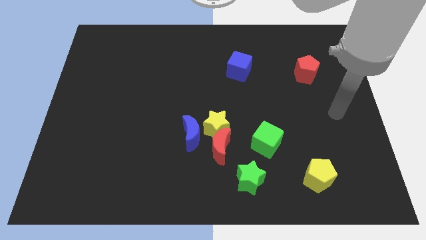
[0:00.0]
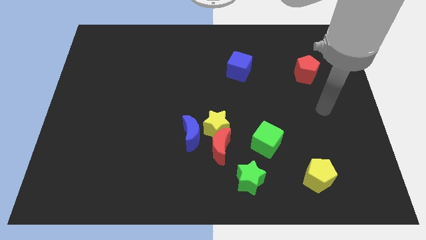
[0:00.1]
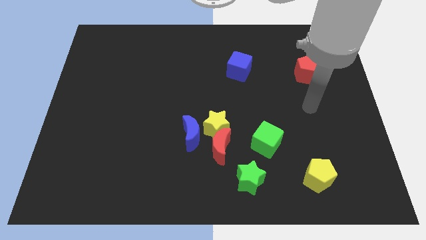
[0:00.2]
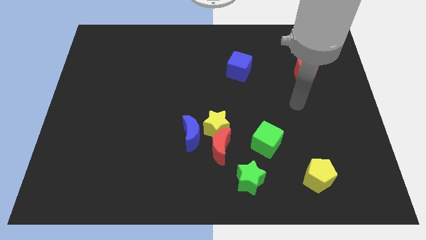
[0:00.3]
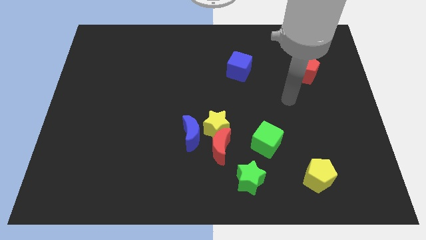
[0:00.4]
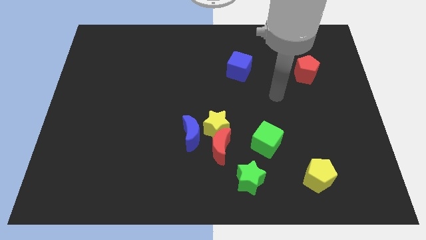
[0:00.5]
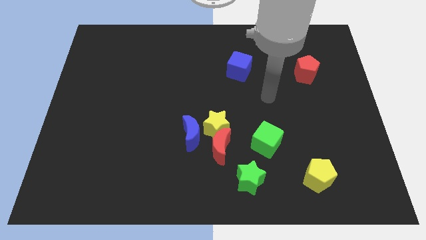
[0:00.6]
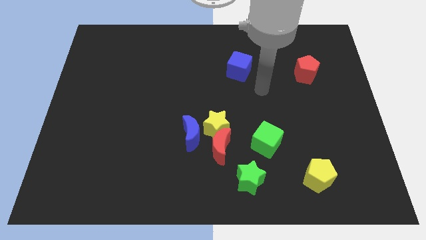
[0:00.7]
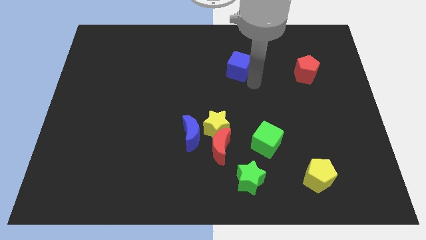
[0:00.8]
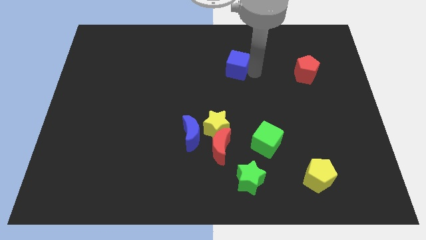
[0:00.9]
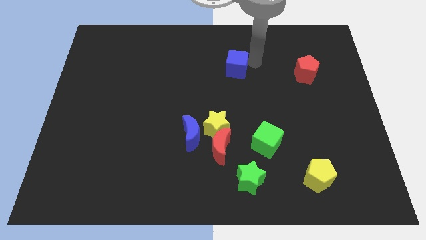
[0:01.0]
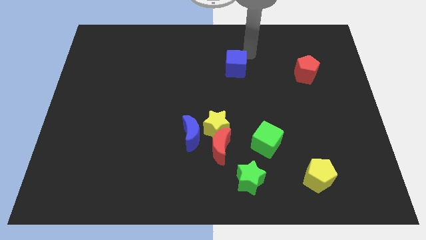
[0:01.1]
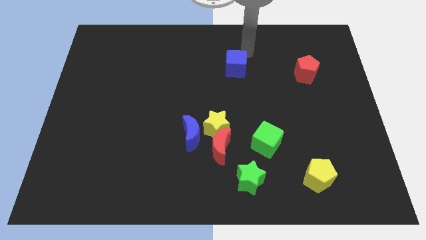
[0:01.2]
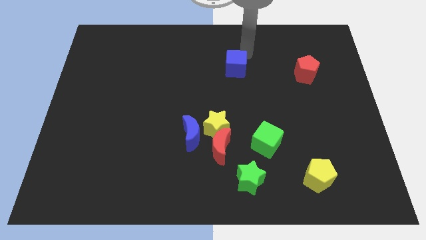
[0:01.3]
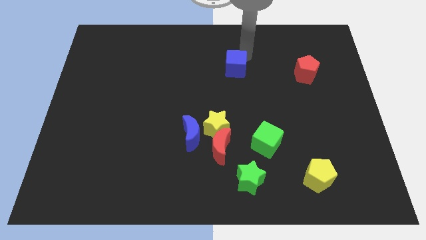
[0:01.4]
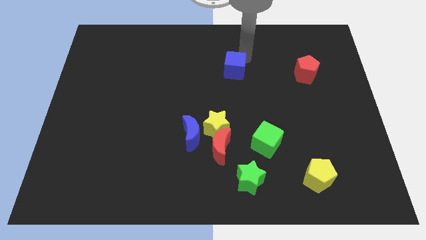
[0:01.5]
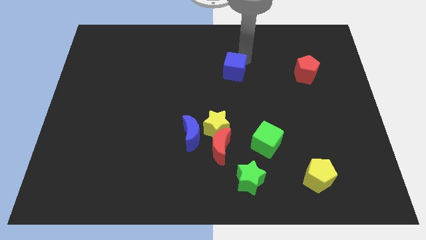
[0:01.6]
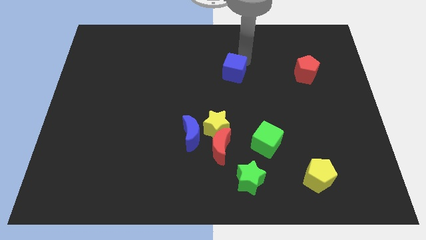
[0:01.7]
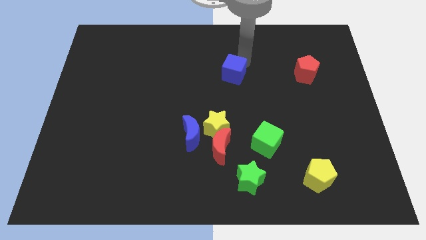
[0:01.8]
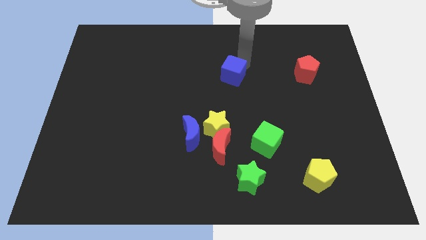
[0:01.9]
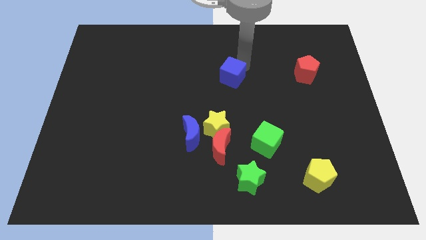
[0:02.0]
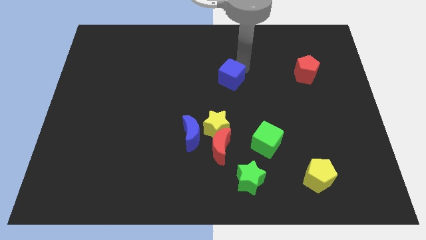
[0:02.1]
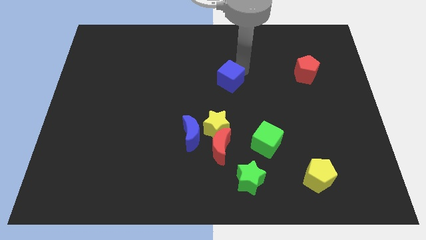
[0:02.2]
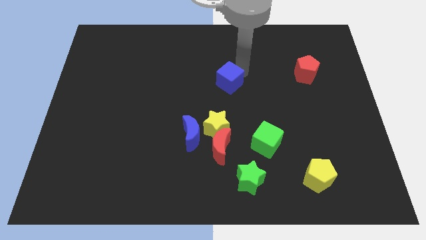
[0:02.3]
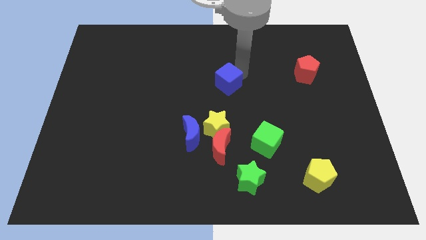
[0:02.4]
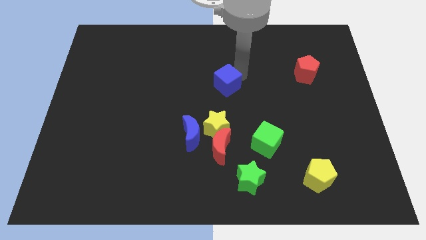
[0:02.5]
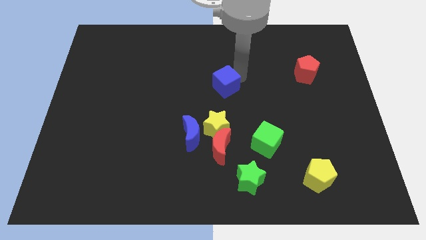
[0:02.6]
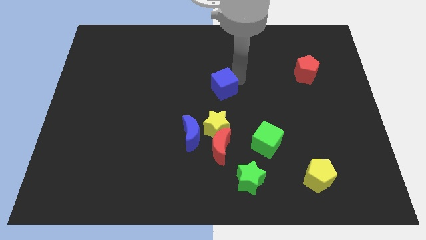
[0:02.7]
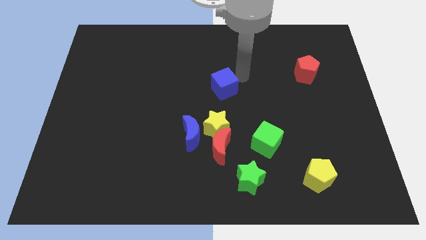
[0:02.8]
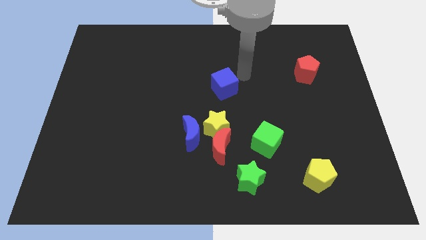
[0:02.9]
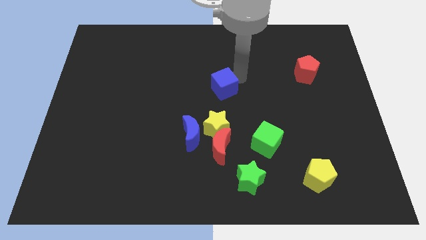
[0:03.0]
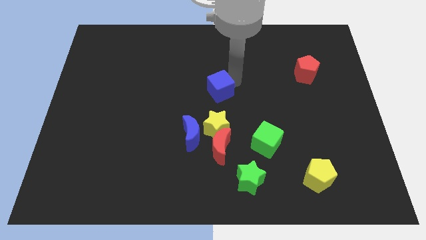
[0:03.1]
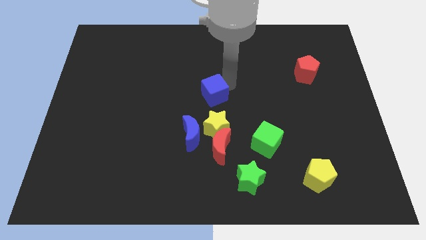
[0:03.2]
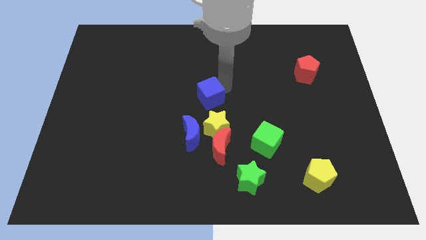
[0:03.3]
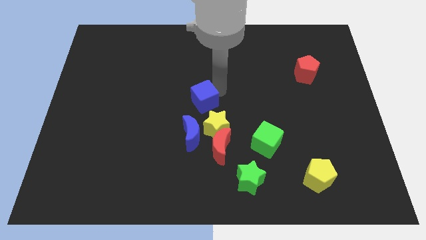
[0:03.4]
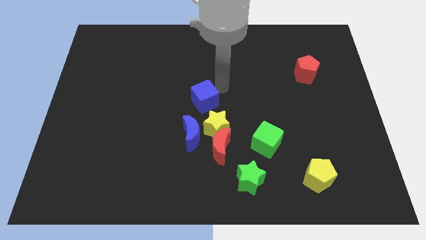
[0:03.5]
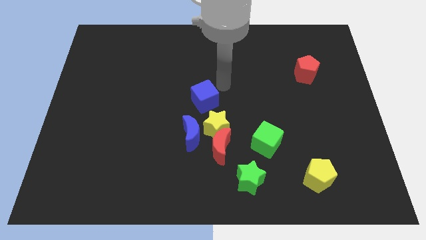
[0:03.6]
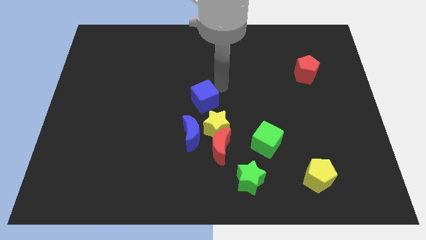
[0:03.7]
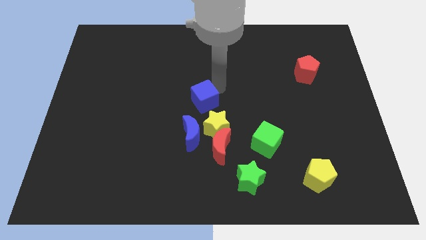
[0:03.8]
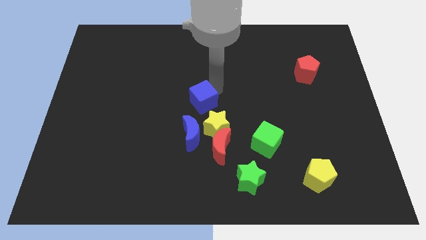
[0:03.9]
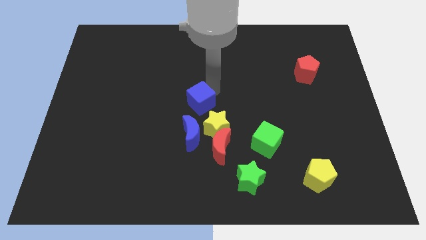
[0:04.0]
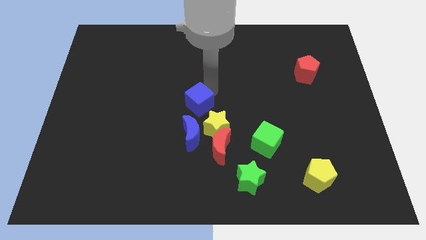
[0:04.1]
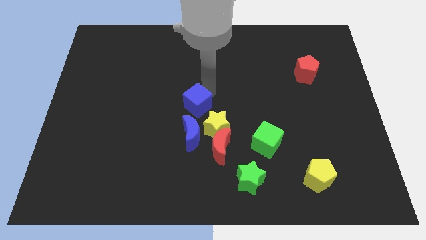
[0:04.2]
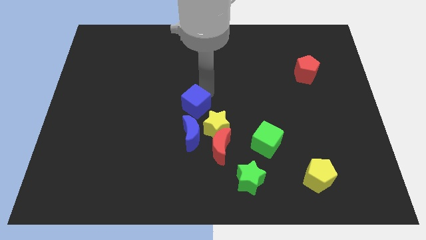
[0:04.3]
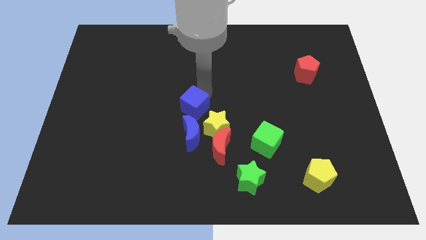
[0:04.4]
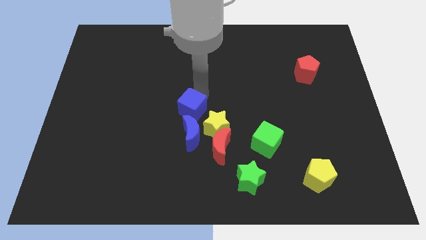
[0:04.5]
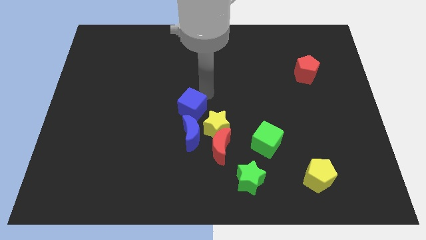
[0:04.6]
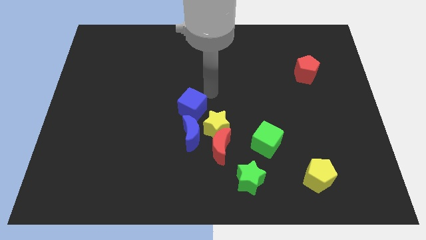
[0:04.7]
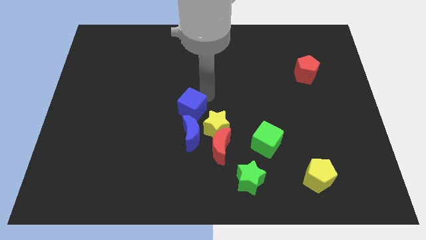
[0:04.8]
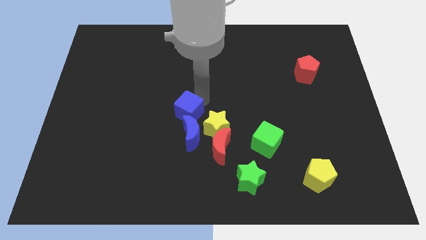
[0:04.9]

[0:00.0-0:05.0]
slide the blue cube just left of the yellow star

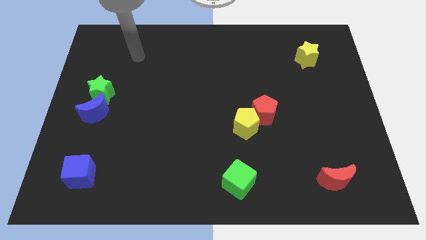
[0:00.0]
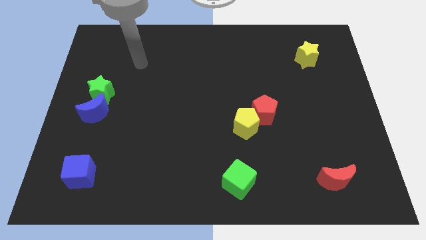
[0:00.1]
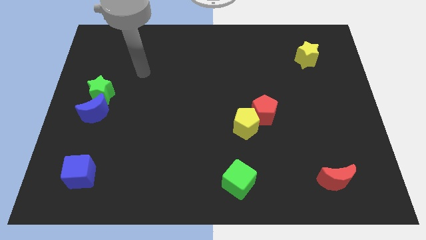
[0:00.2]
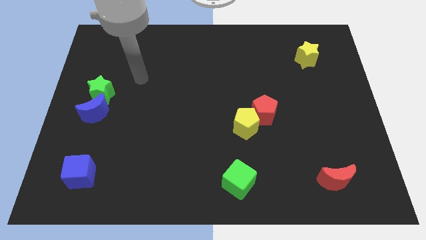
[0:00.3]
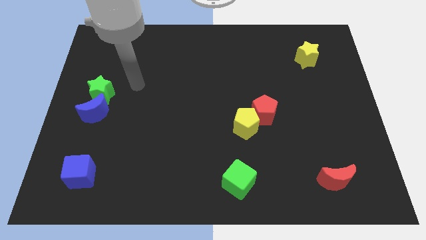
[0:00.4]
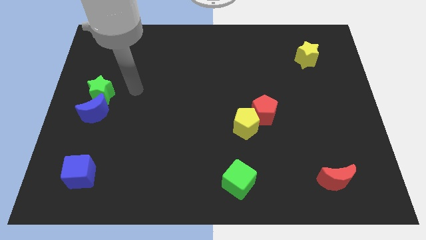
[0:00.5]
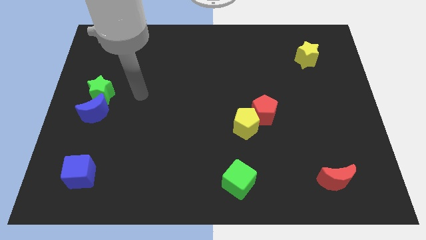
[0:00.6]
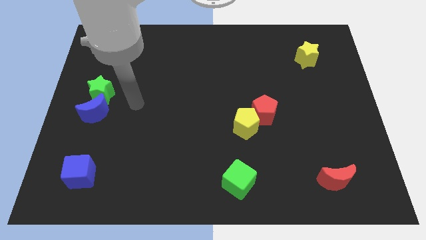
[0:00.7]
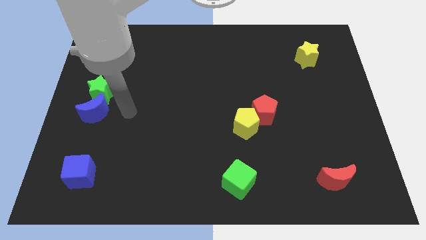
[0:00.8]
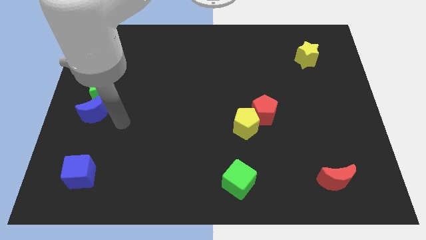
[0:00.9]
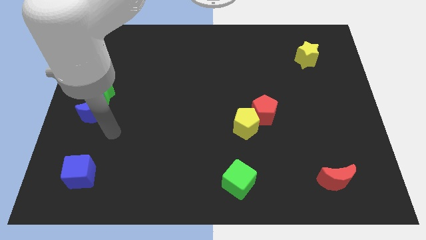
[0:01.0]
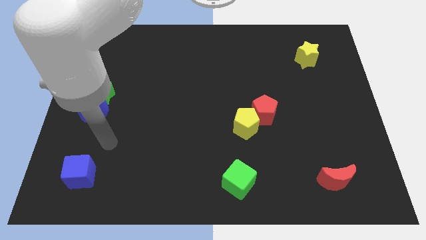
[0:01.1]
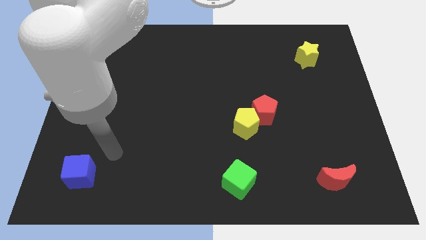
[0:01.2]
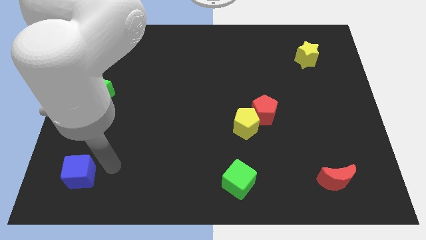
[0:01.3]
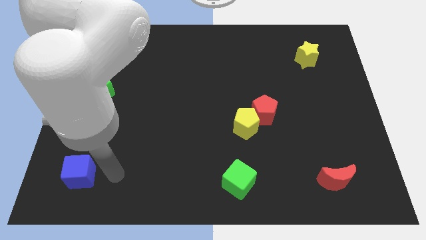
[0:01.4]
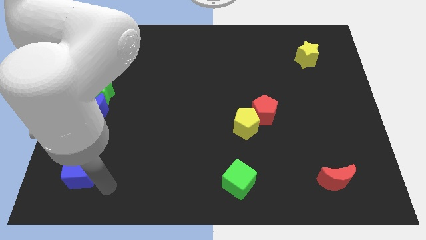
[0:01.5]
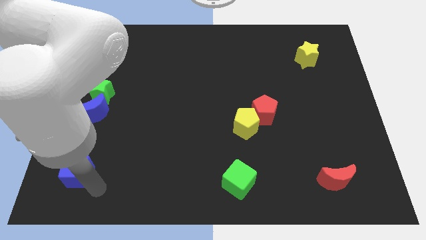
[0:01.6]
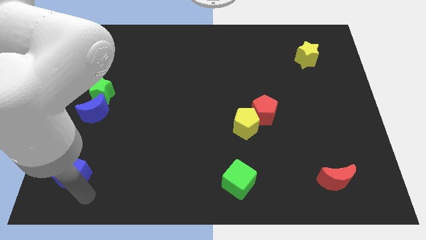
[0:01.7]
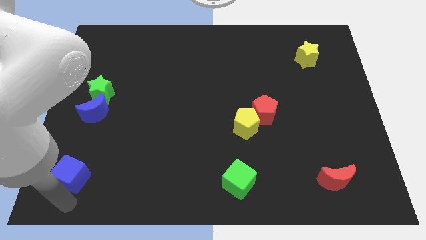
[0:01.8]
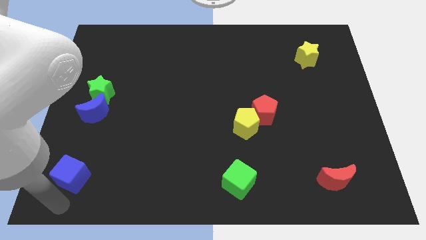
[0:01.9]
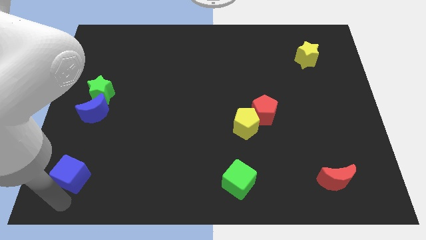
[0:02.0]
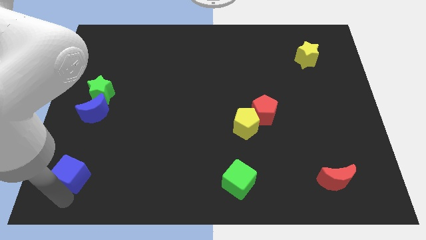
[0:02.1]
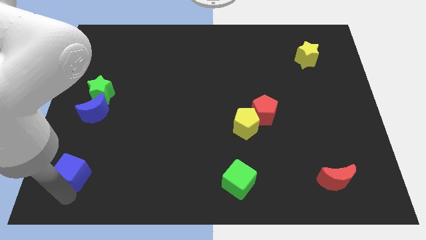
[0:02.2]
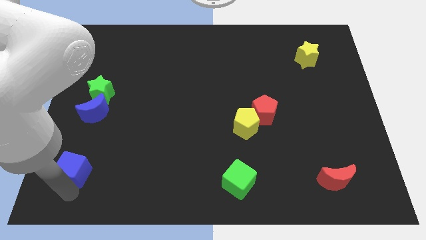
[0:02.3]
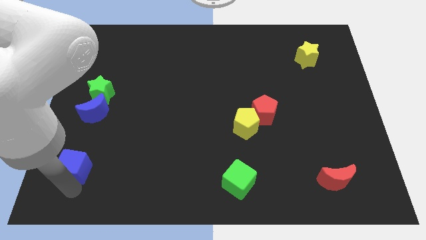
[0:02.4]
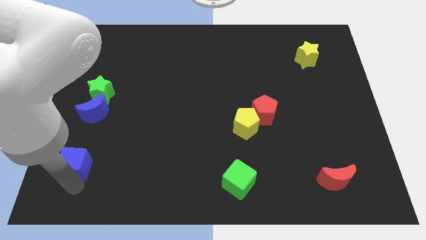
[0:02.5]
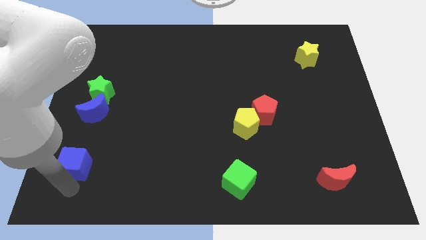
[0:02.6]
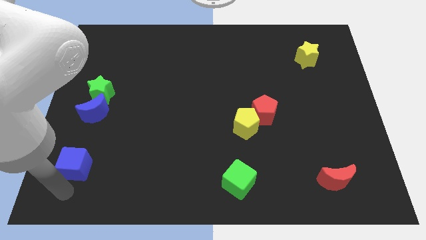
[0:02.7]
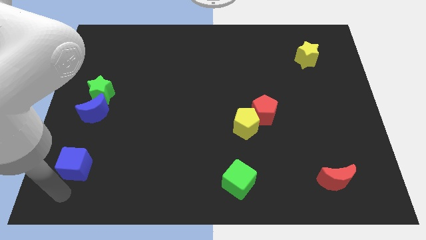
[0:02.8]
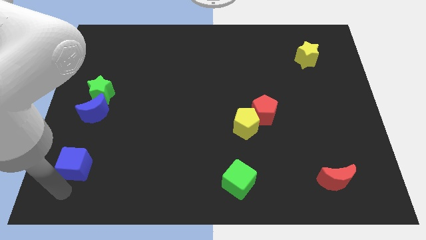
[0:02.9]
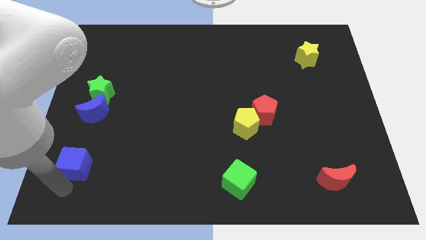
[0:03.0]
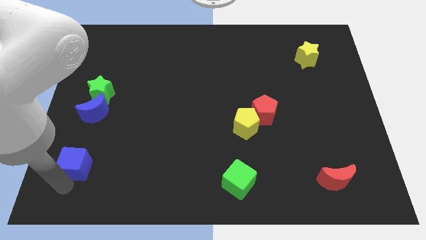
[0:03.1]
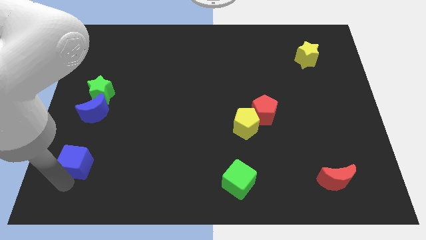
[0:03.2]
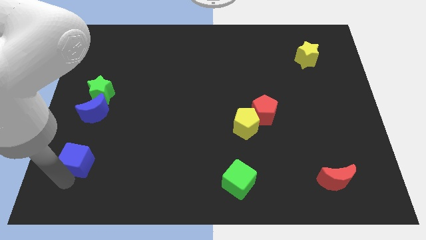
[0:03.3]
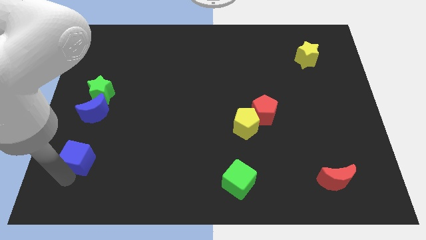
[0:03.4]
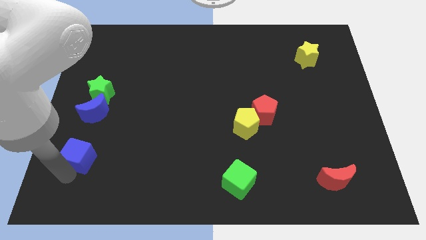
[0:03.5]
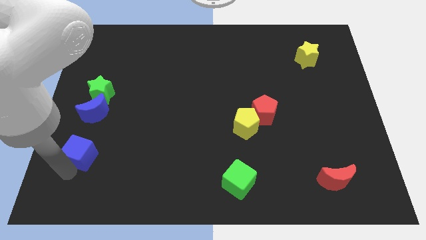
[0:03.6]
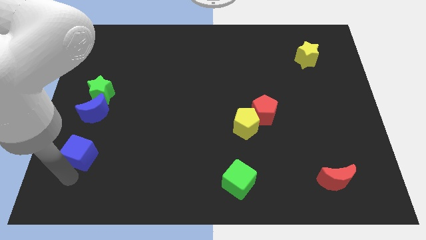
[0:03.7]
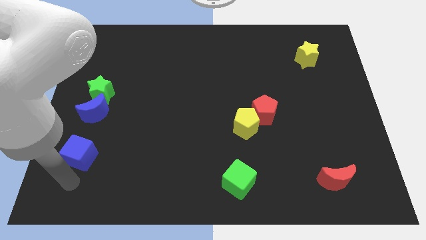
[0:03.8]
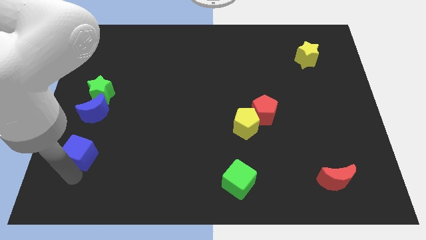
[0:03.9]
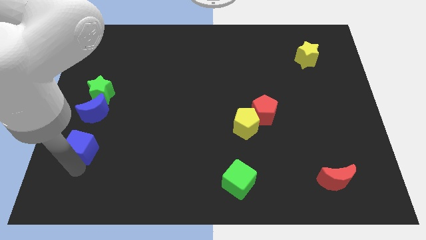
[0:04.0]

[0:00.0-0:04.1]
put the blue cube to the bottom side of the green star
